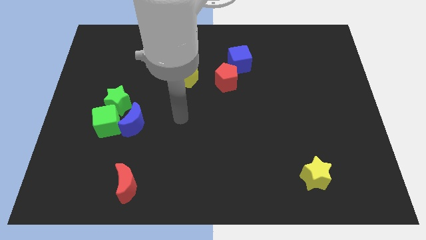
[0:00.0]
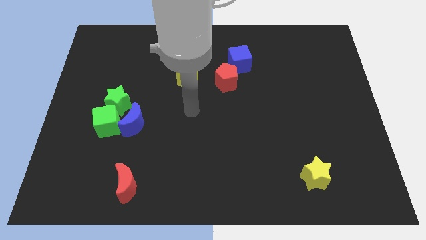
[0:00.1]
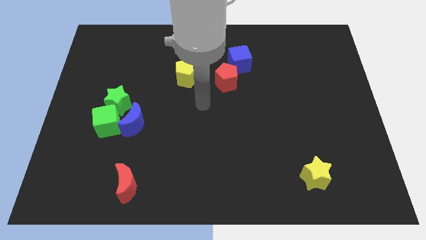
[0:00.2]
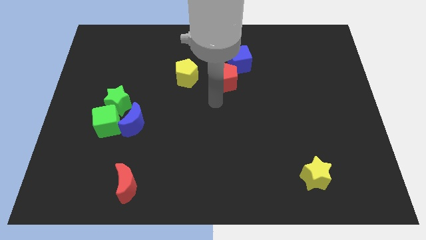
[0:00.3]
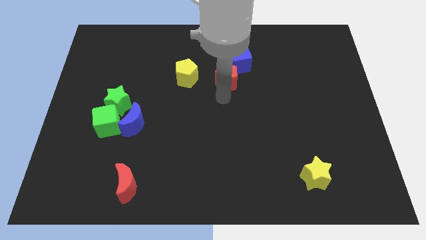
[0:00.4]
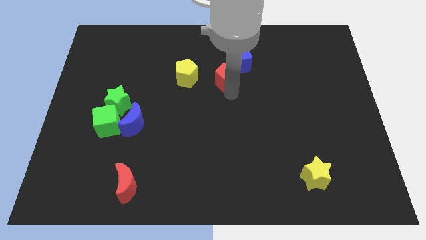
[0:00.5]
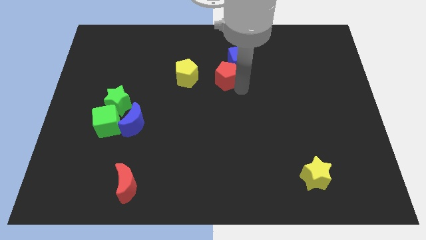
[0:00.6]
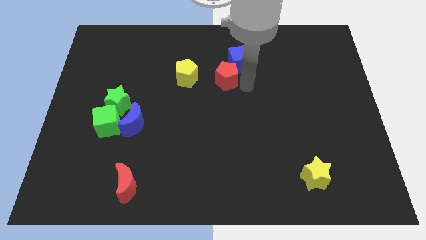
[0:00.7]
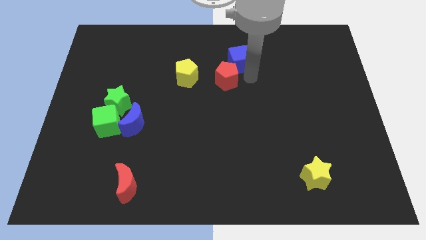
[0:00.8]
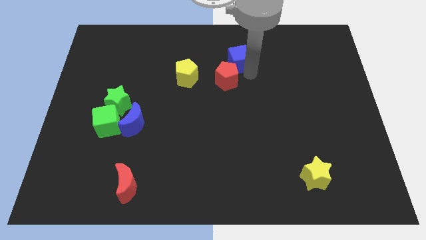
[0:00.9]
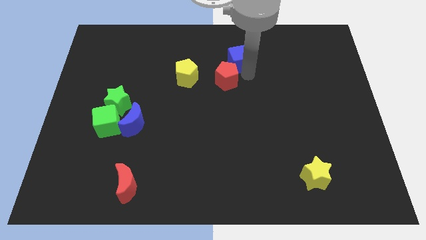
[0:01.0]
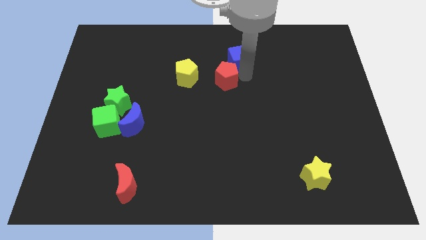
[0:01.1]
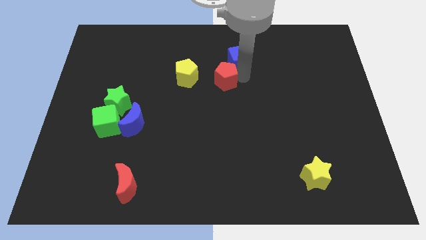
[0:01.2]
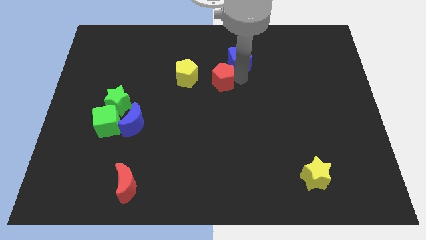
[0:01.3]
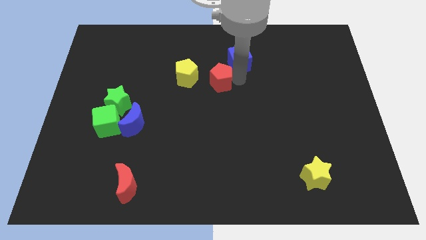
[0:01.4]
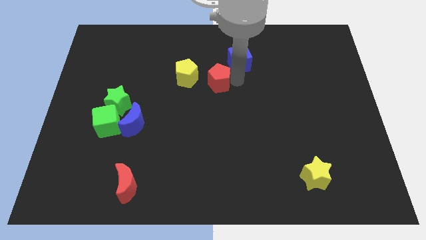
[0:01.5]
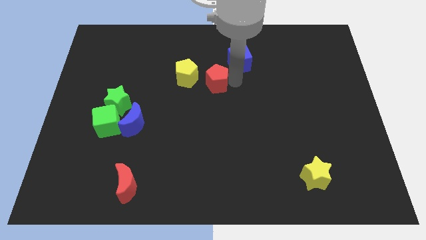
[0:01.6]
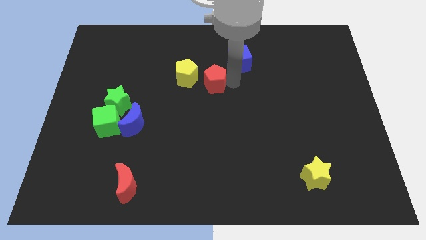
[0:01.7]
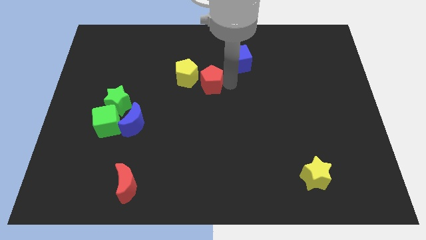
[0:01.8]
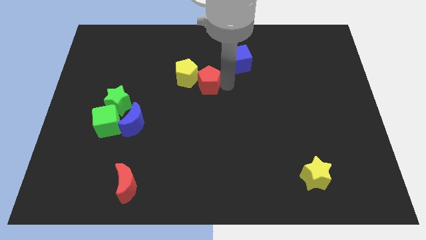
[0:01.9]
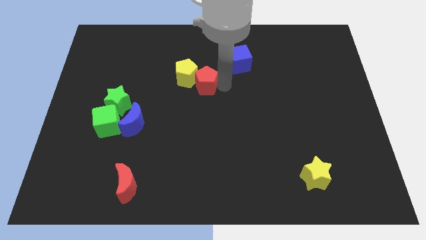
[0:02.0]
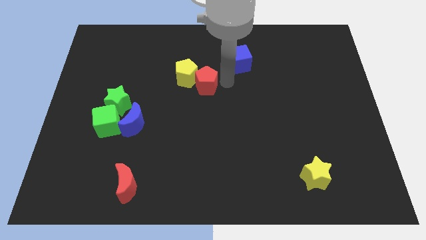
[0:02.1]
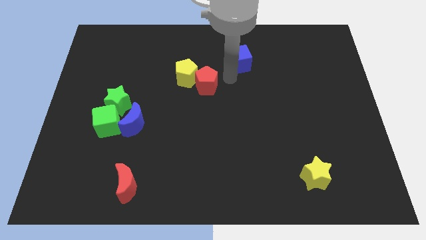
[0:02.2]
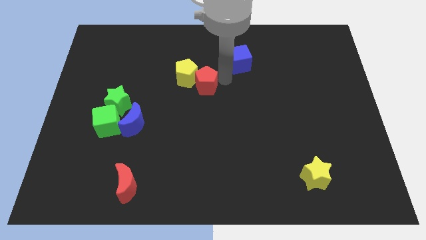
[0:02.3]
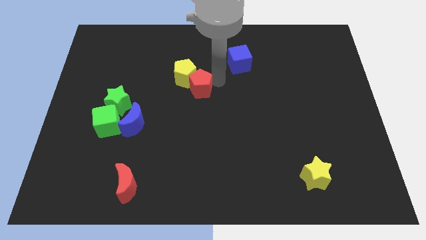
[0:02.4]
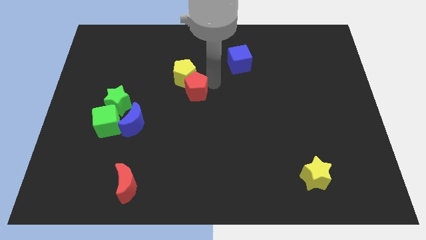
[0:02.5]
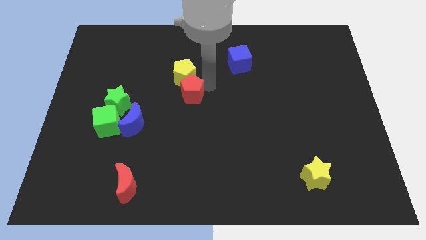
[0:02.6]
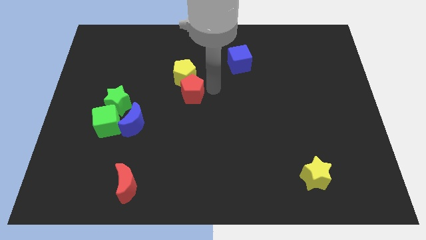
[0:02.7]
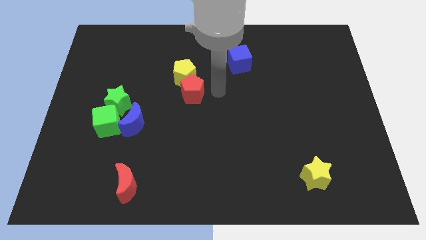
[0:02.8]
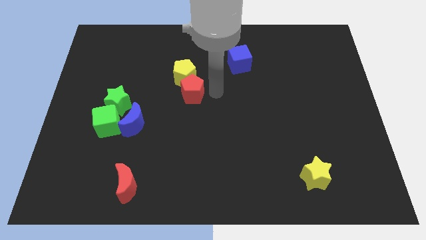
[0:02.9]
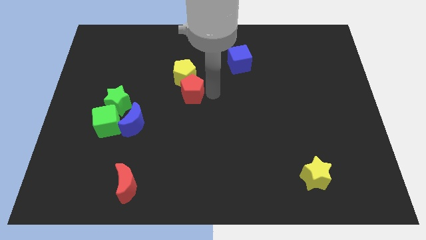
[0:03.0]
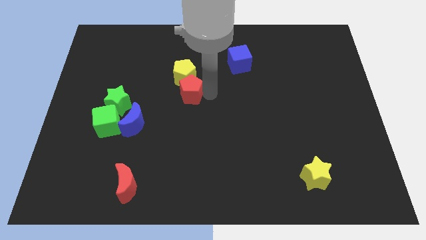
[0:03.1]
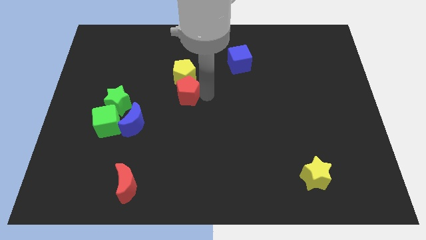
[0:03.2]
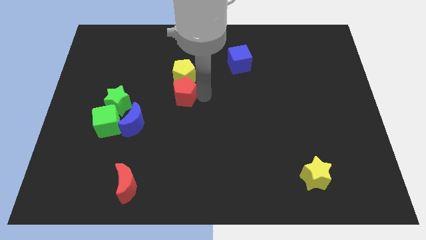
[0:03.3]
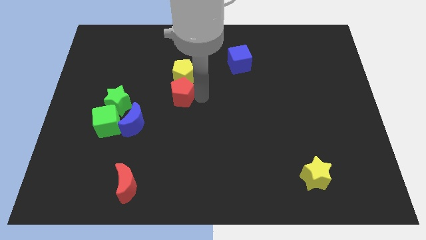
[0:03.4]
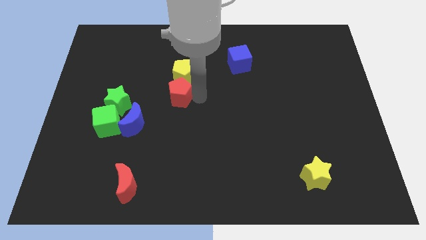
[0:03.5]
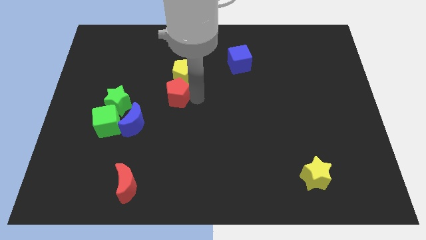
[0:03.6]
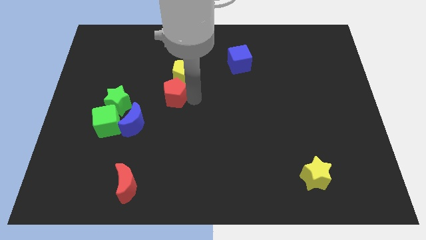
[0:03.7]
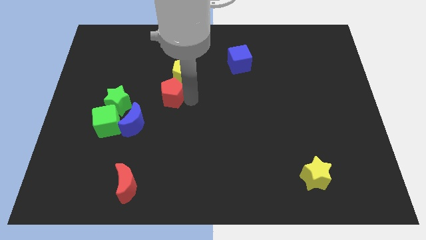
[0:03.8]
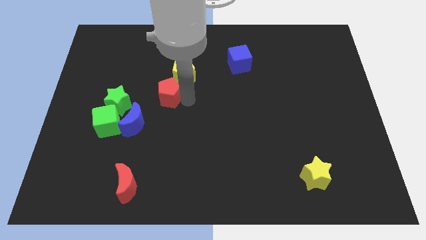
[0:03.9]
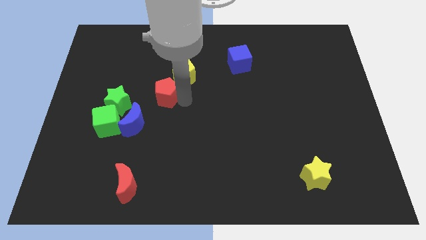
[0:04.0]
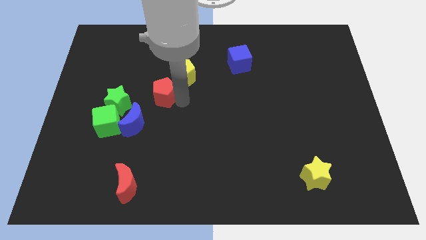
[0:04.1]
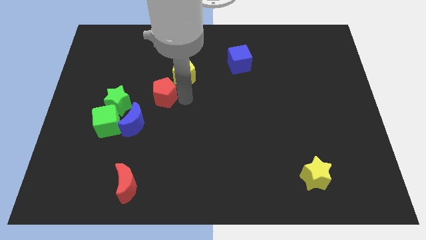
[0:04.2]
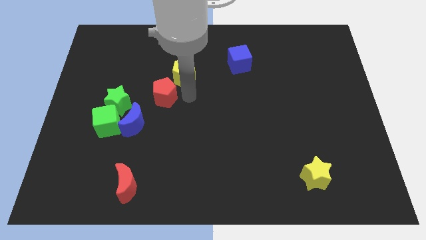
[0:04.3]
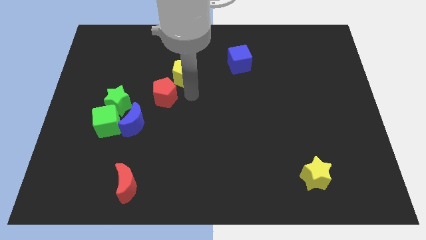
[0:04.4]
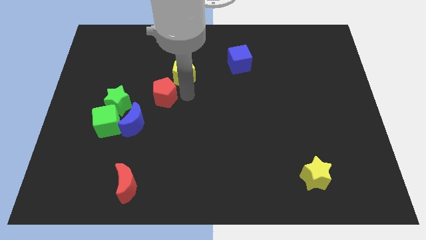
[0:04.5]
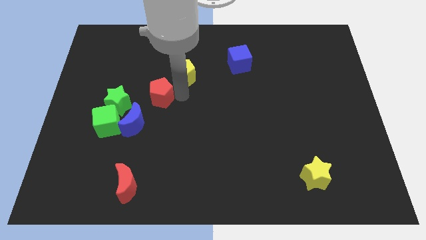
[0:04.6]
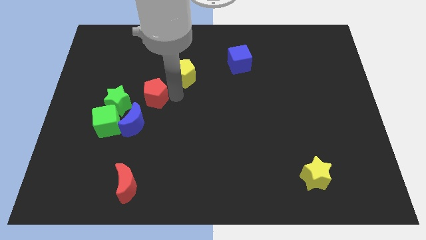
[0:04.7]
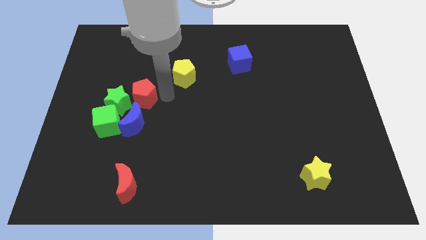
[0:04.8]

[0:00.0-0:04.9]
move the red pentagon towards the green star

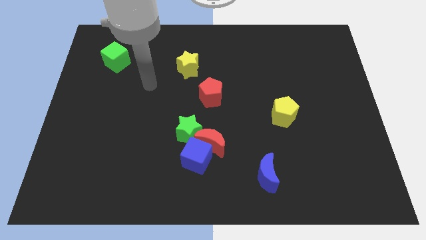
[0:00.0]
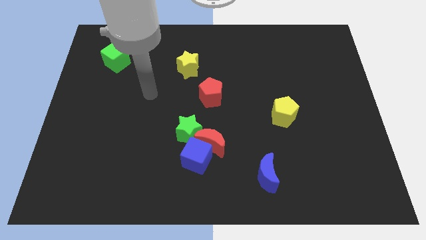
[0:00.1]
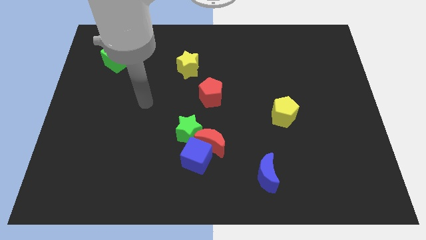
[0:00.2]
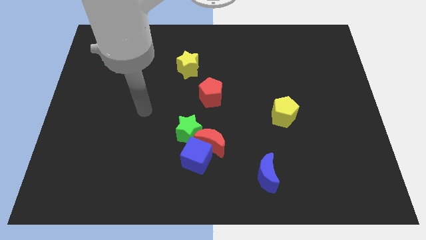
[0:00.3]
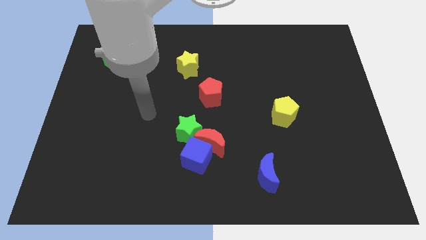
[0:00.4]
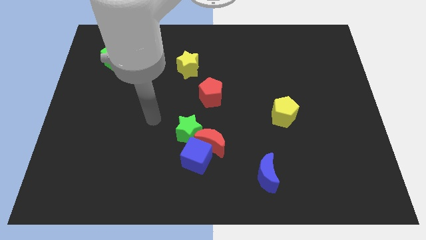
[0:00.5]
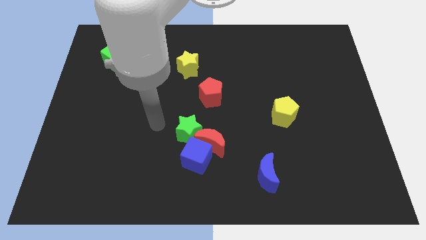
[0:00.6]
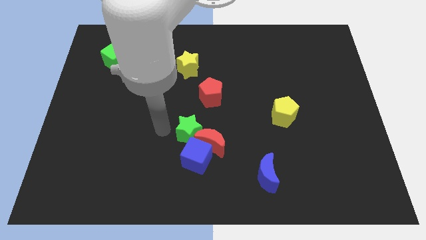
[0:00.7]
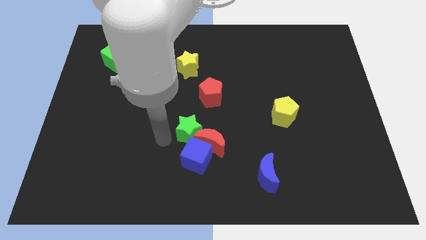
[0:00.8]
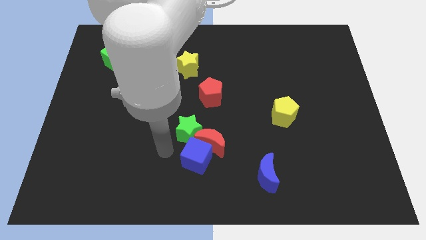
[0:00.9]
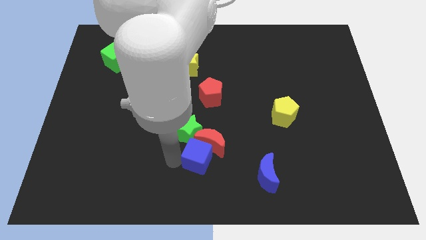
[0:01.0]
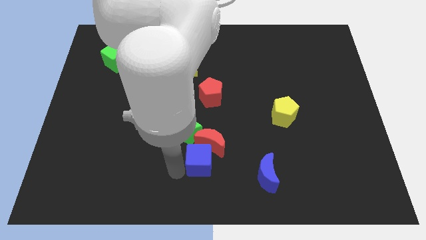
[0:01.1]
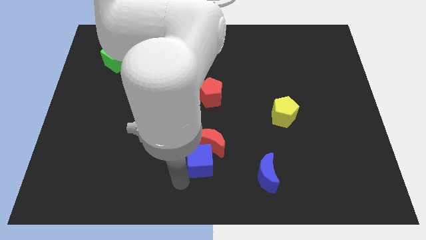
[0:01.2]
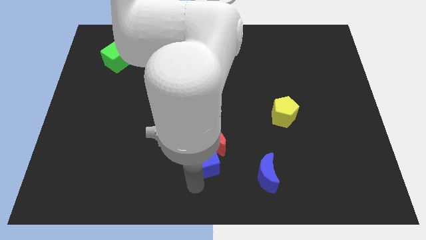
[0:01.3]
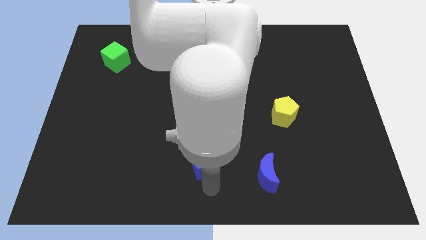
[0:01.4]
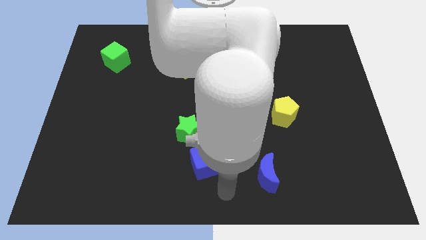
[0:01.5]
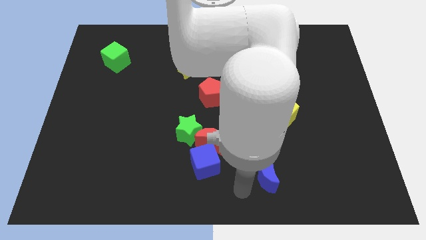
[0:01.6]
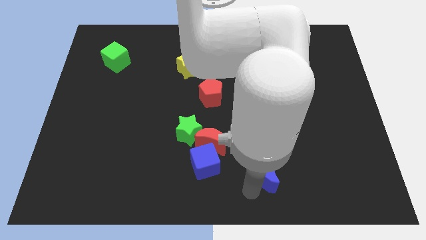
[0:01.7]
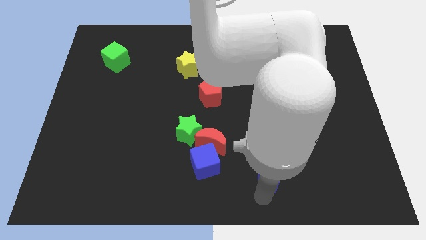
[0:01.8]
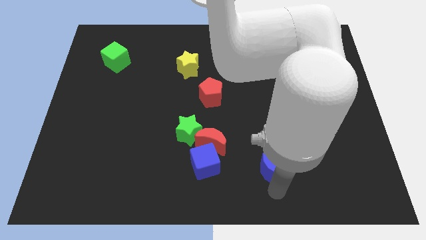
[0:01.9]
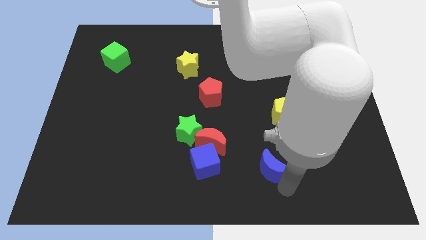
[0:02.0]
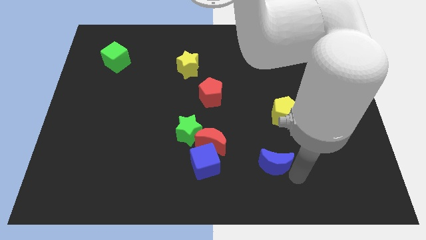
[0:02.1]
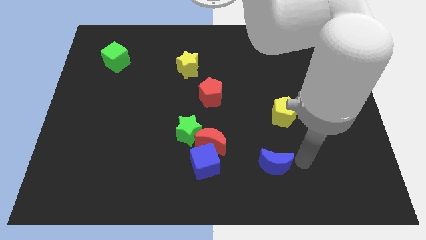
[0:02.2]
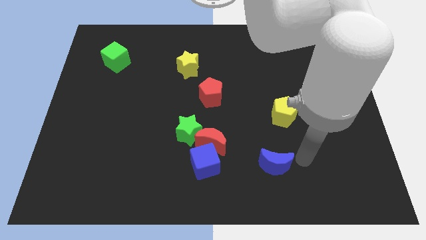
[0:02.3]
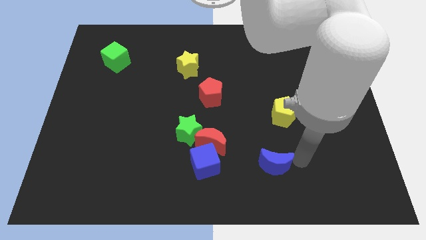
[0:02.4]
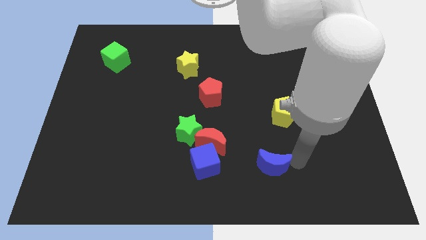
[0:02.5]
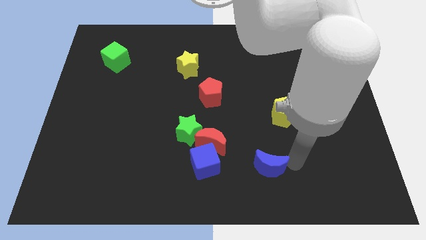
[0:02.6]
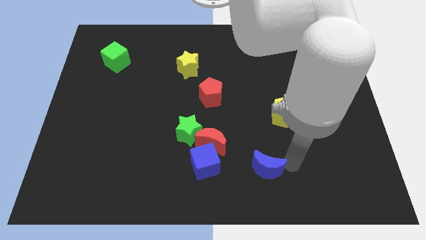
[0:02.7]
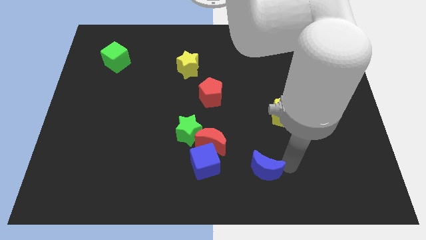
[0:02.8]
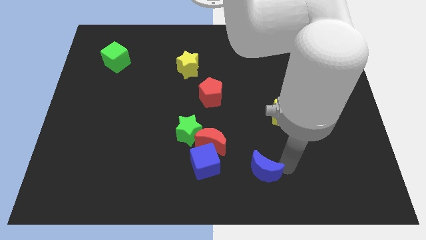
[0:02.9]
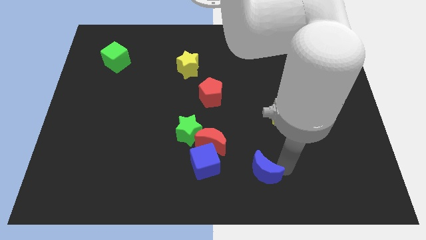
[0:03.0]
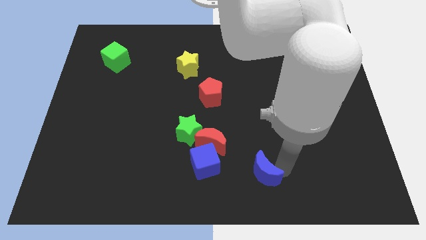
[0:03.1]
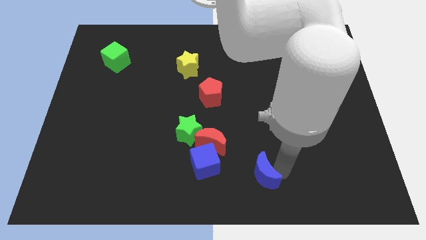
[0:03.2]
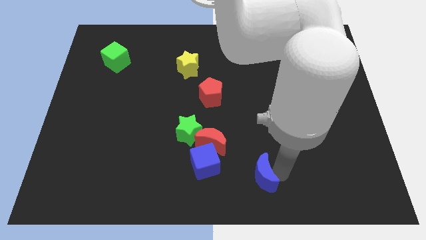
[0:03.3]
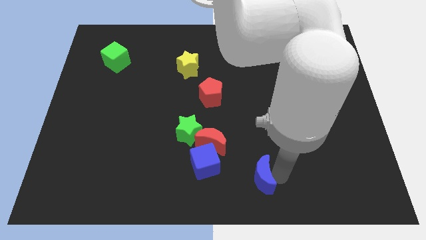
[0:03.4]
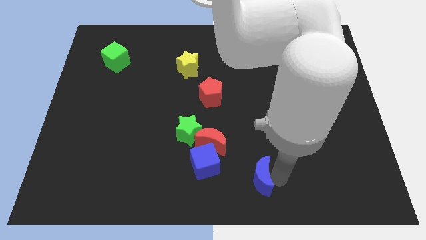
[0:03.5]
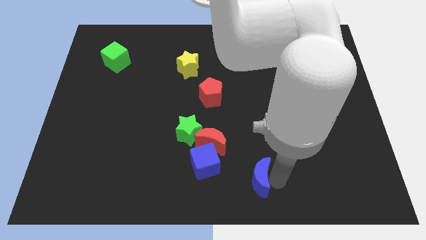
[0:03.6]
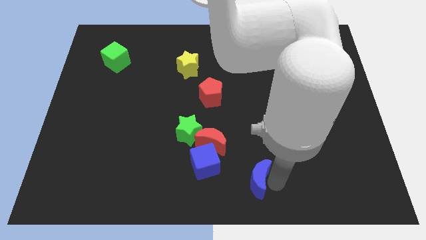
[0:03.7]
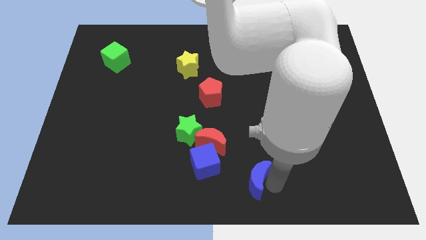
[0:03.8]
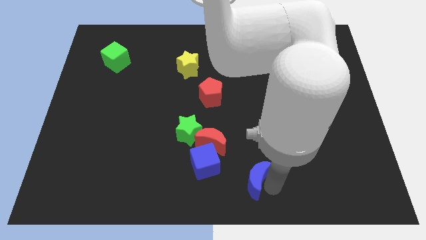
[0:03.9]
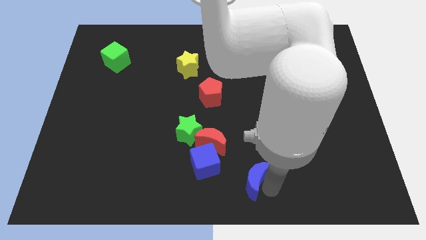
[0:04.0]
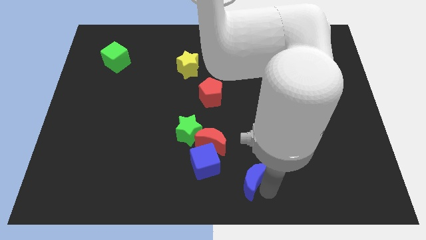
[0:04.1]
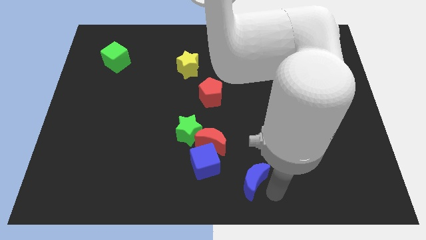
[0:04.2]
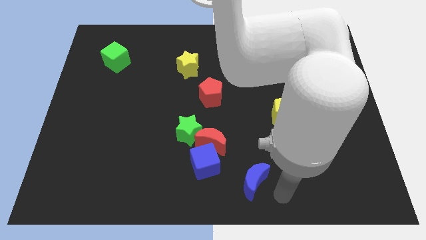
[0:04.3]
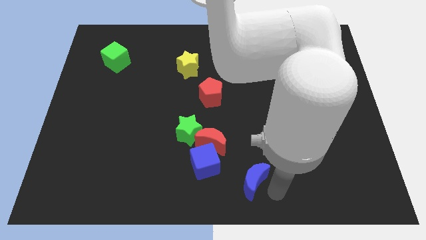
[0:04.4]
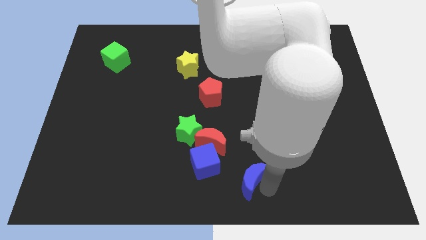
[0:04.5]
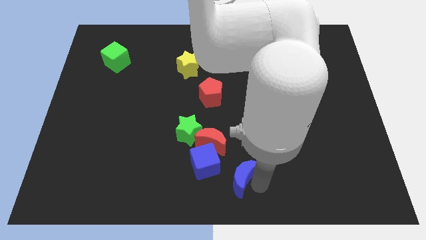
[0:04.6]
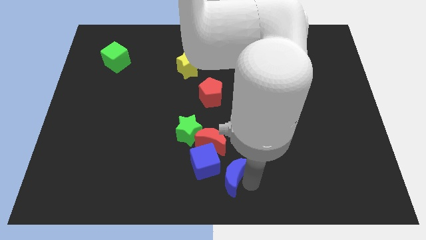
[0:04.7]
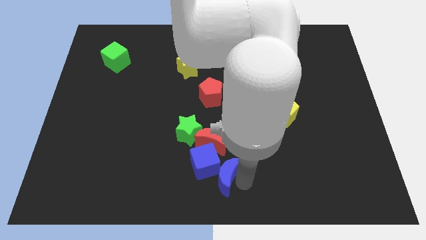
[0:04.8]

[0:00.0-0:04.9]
push the blue moon close to the blue cube
